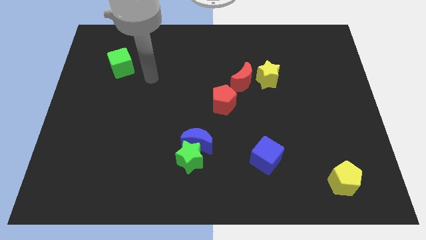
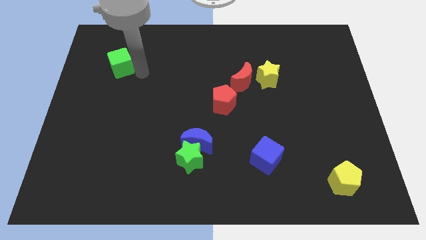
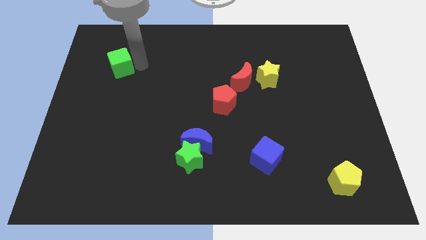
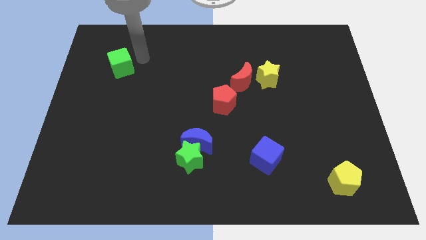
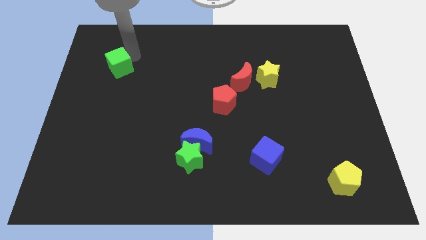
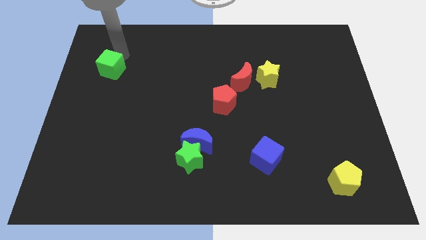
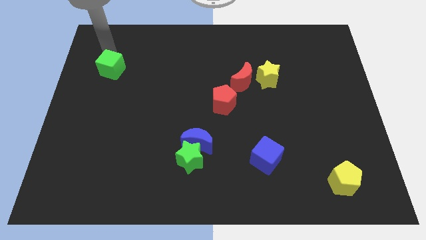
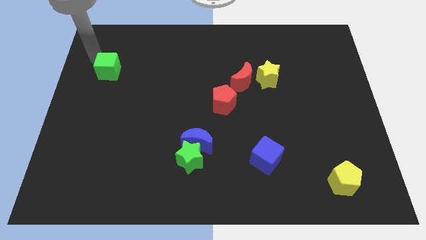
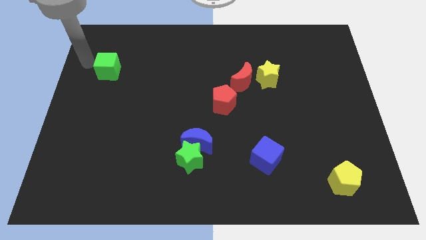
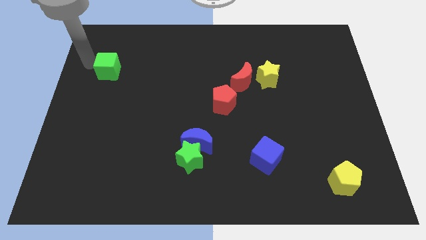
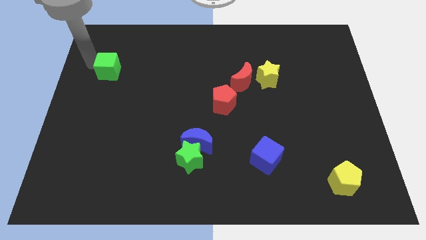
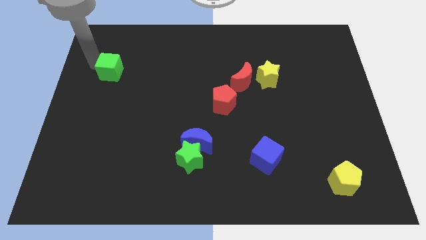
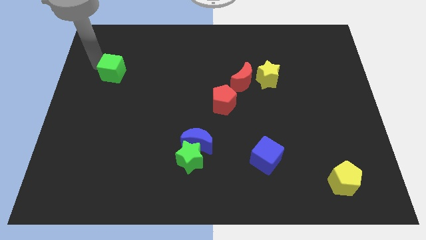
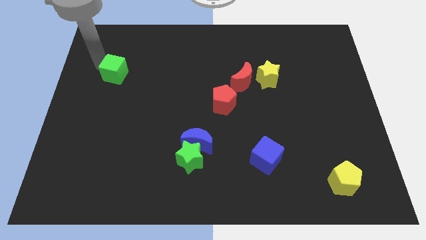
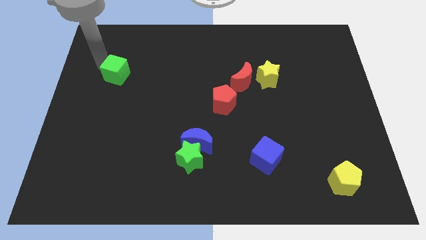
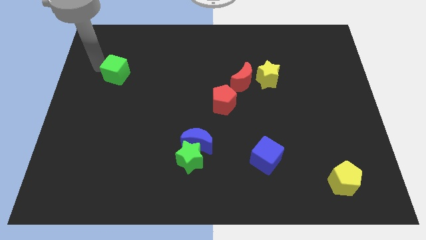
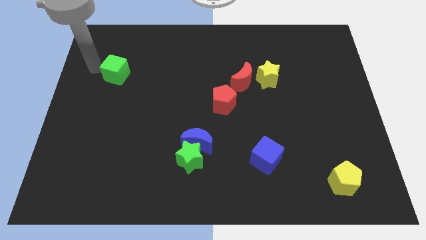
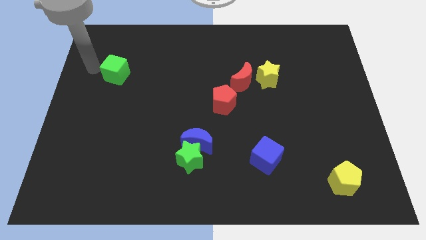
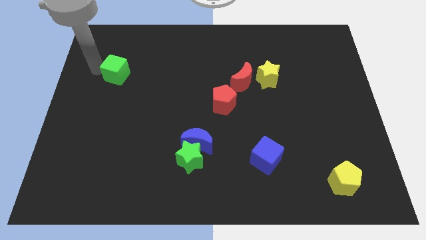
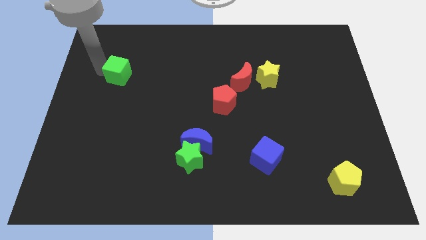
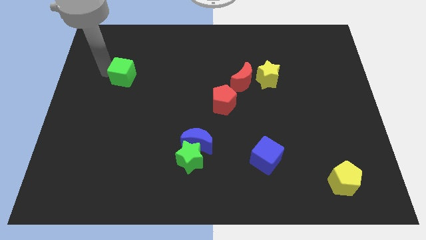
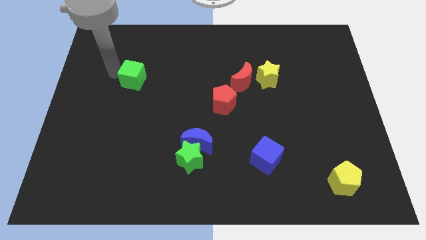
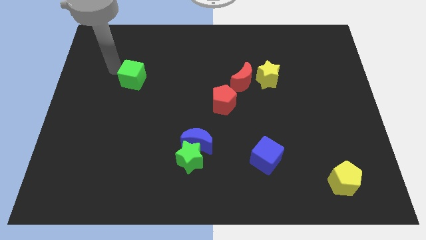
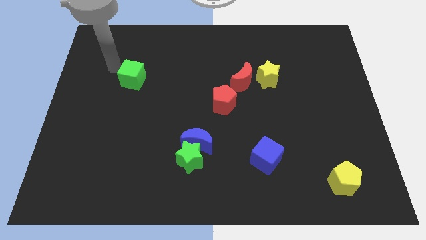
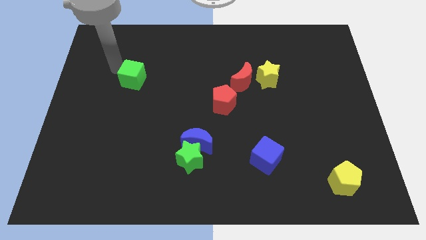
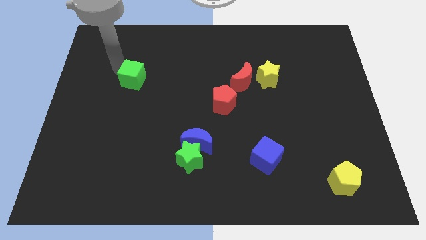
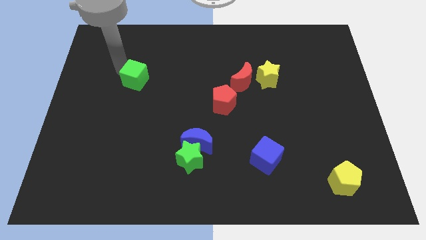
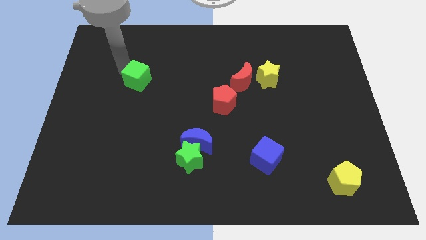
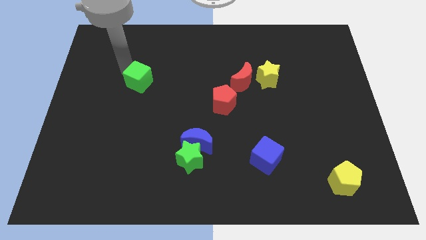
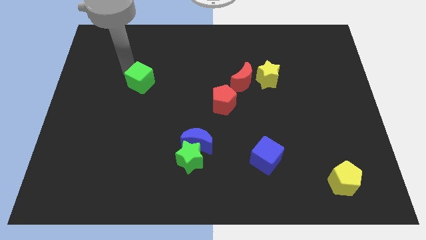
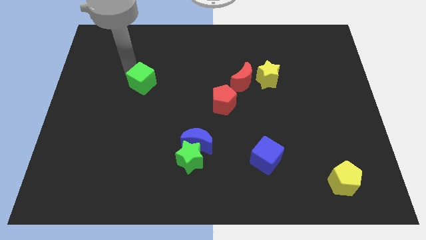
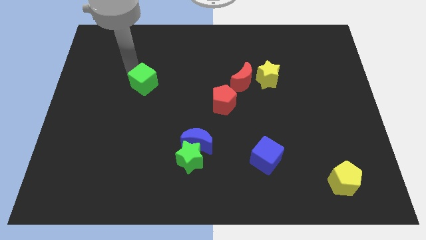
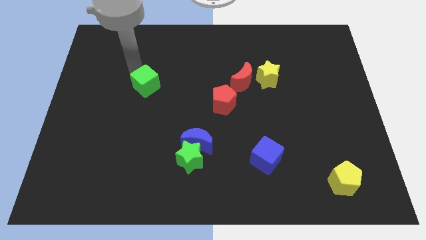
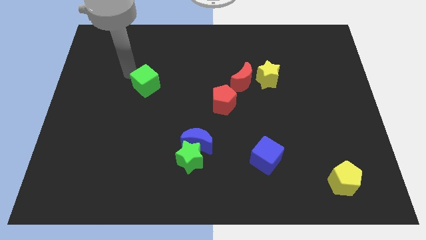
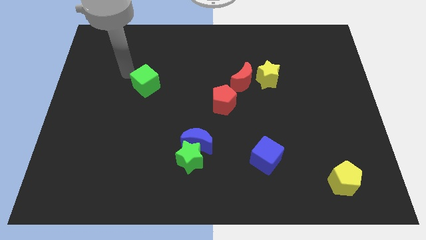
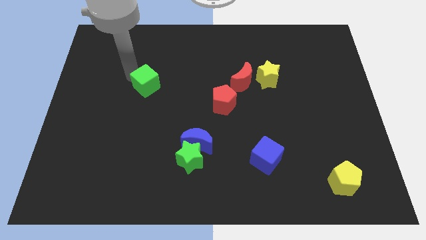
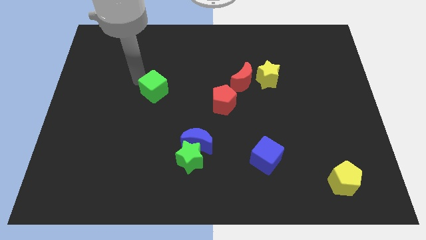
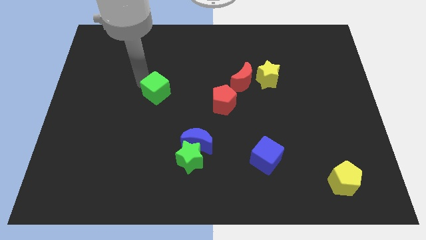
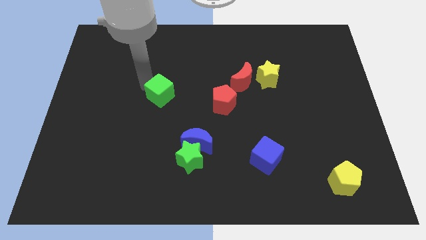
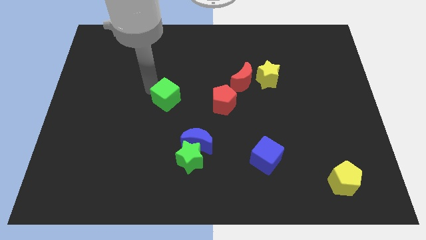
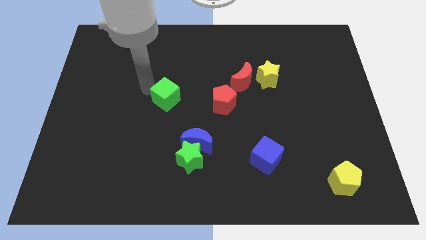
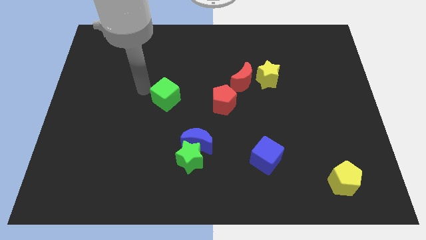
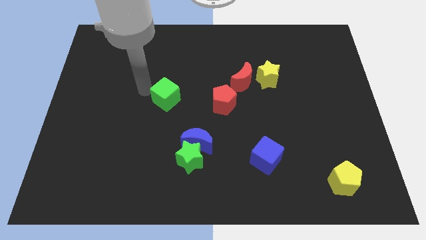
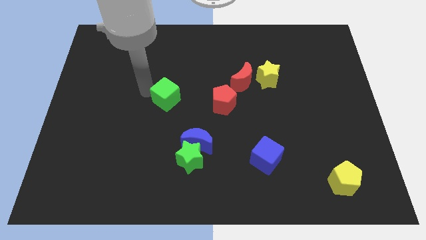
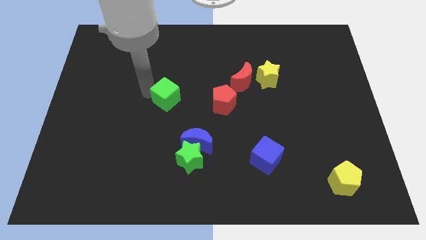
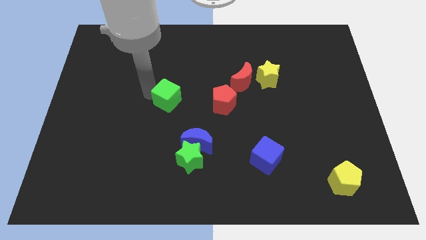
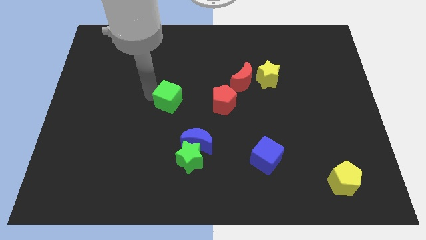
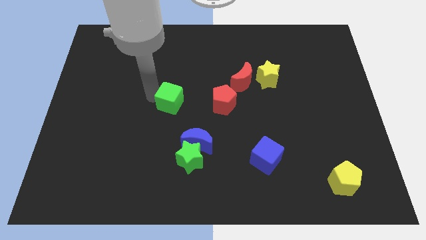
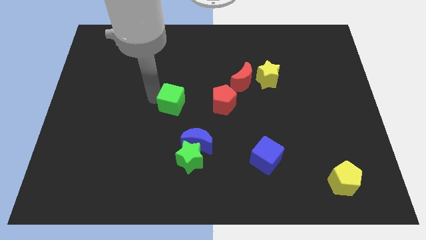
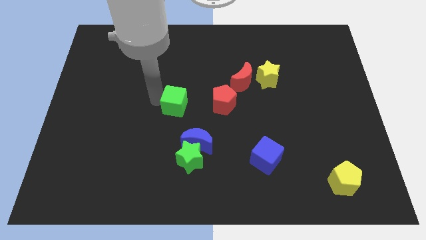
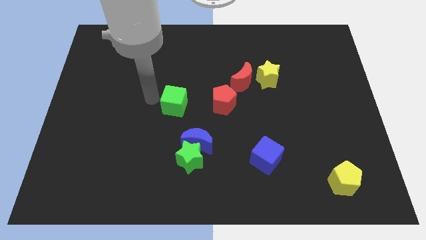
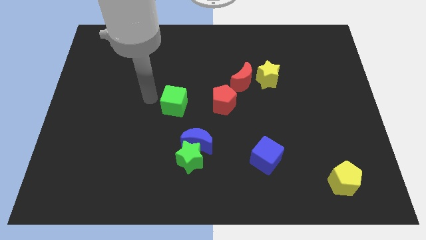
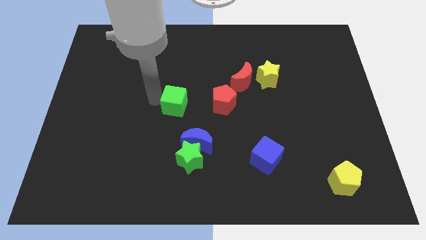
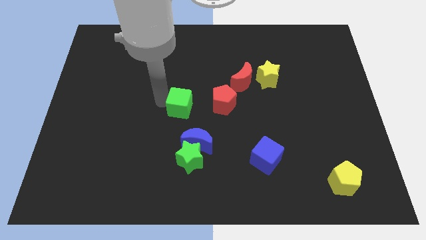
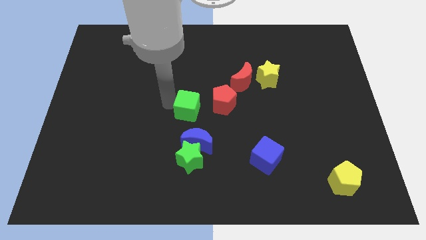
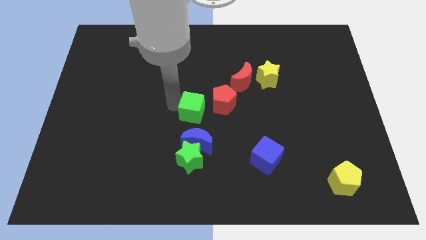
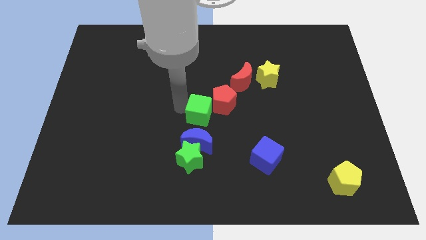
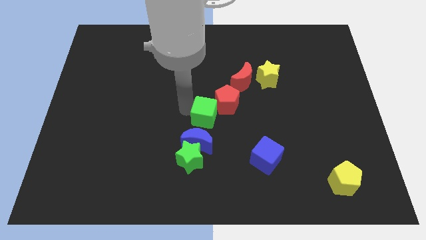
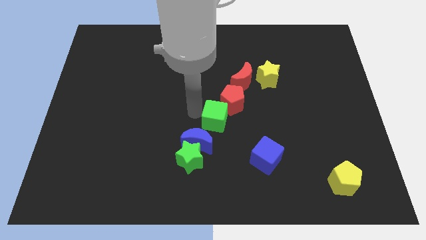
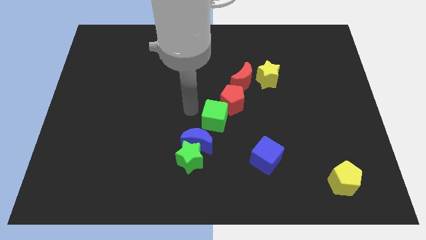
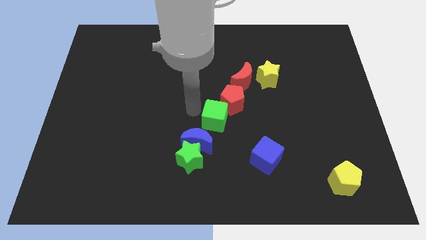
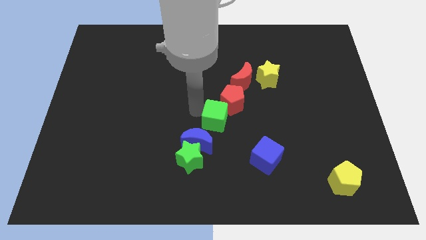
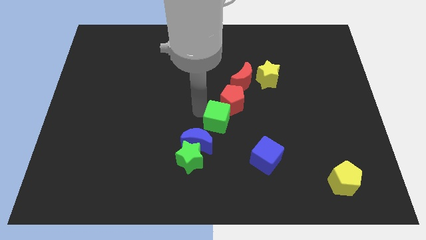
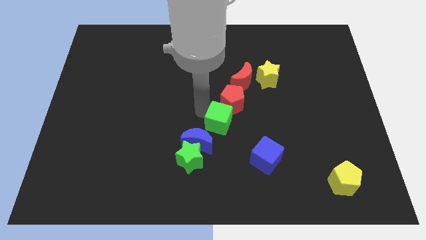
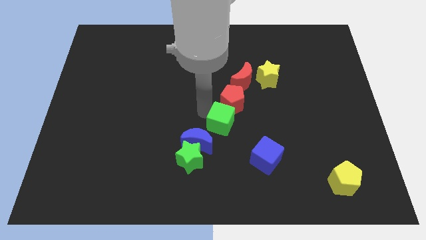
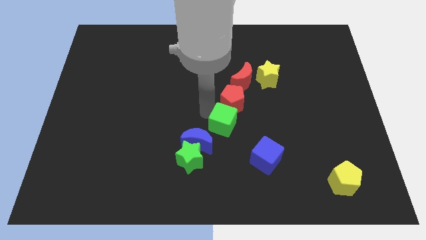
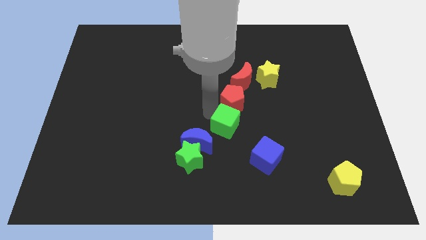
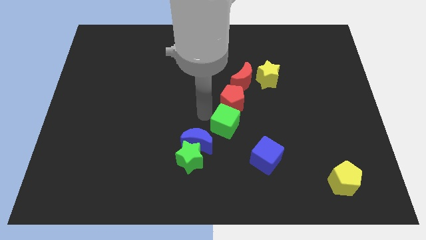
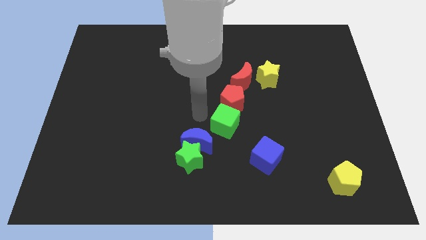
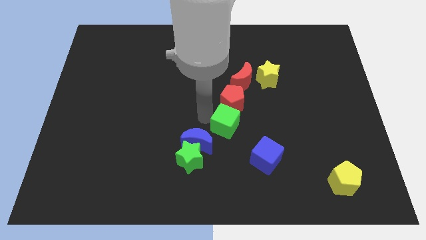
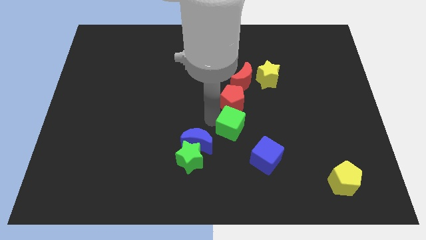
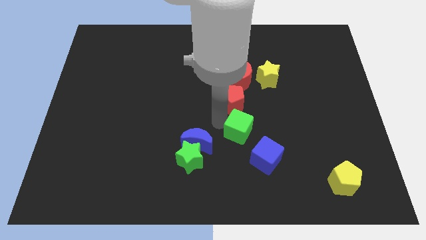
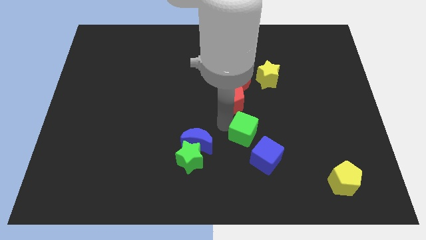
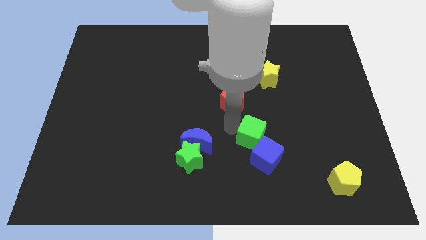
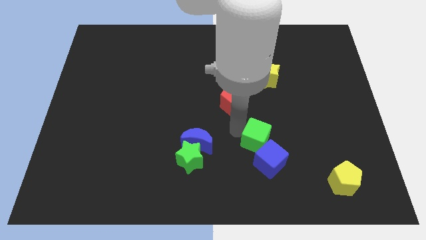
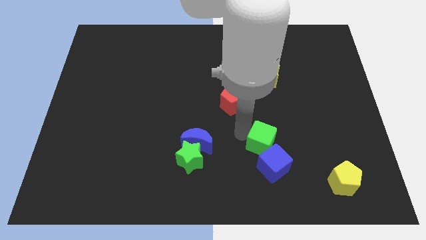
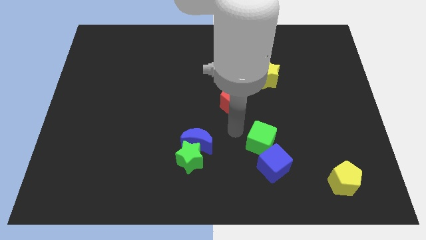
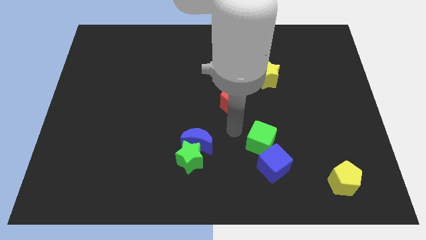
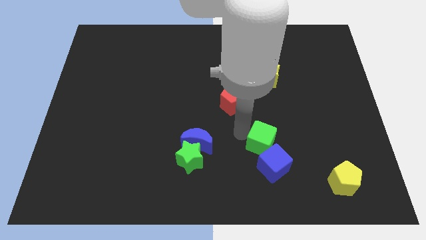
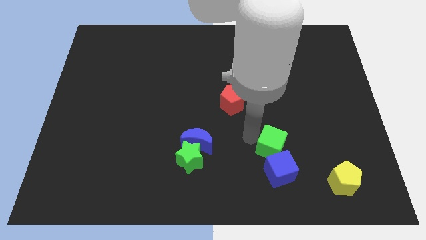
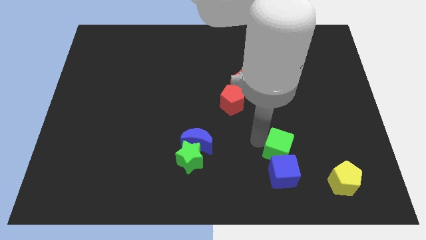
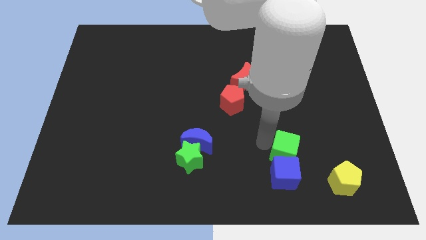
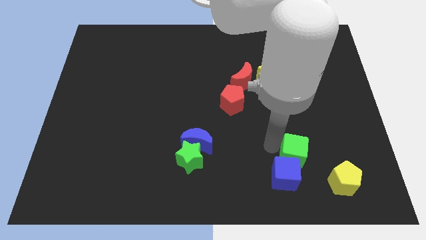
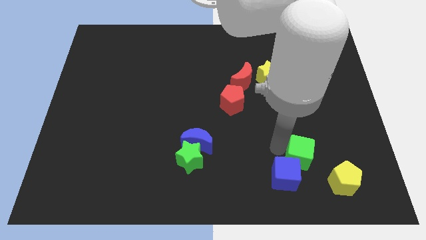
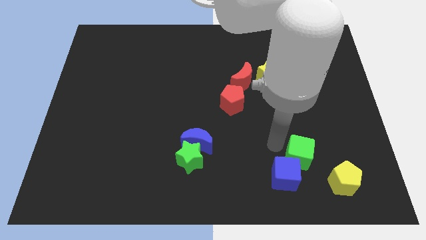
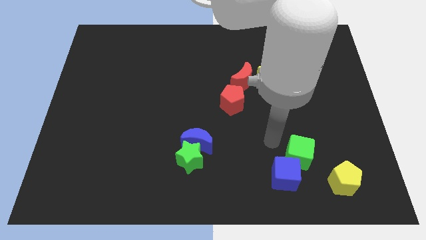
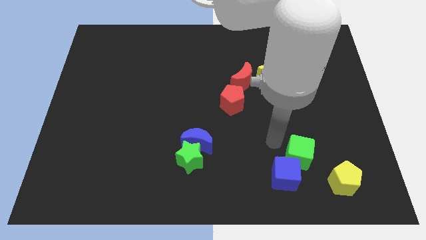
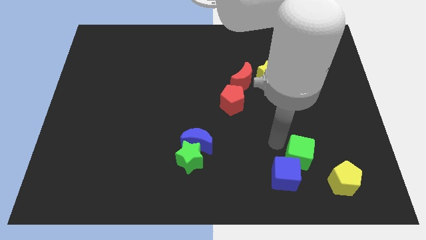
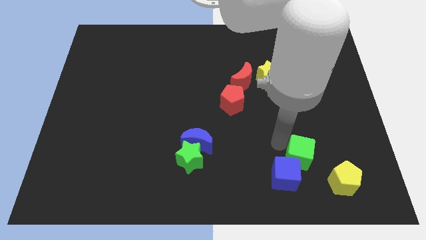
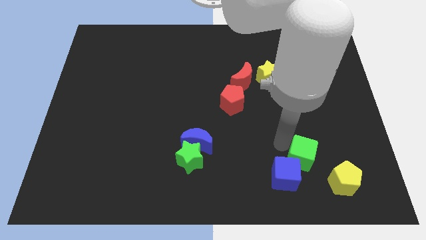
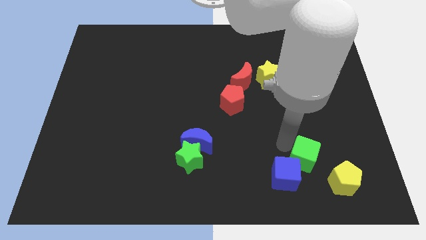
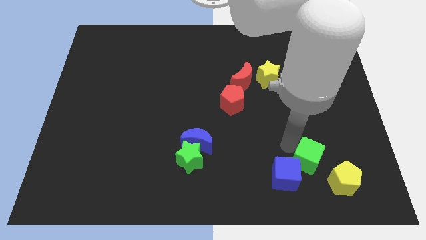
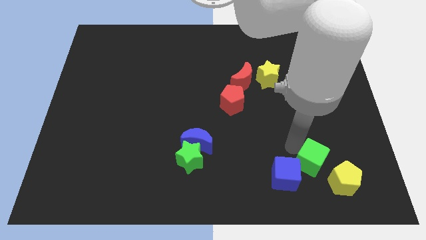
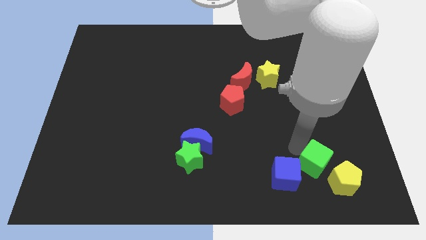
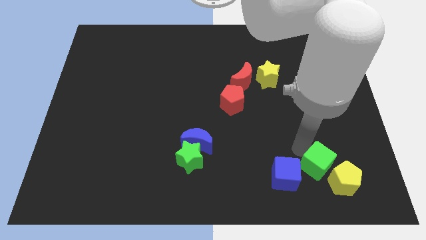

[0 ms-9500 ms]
push the green cube to the yellow pentagon
